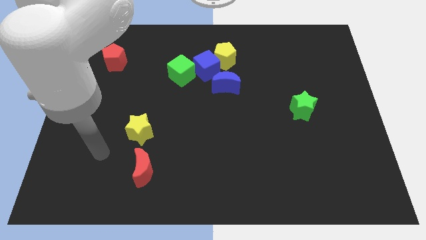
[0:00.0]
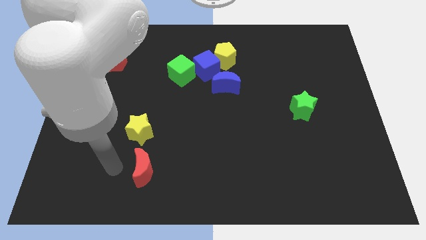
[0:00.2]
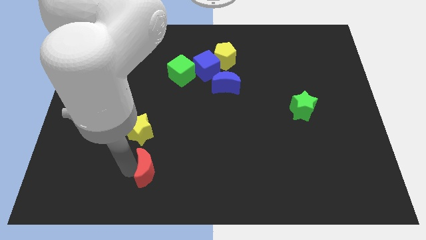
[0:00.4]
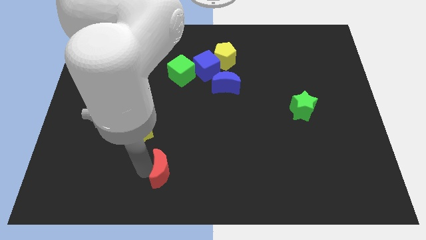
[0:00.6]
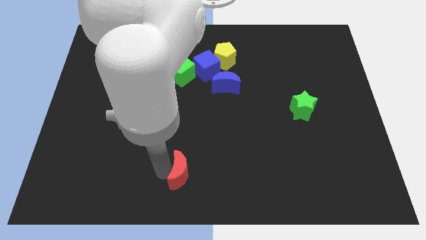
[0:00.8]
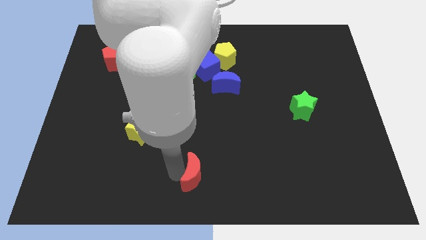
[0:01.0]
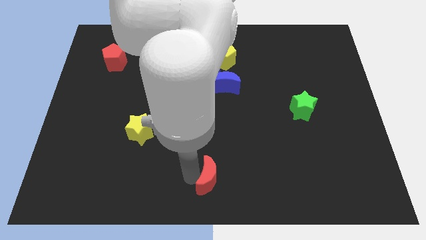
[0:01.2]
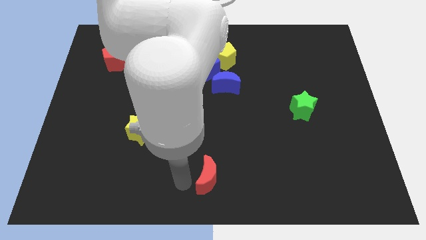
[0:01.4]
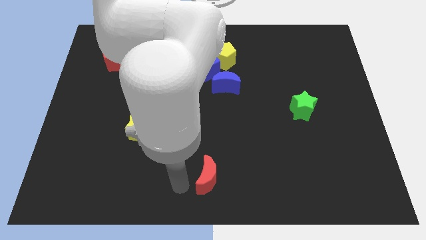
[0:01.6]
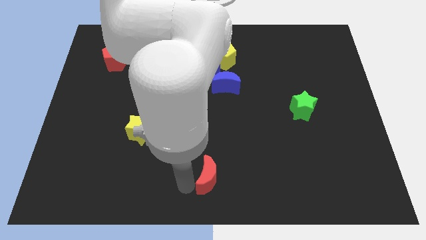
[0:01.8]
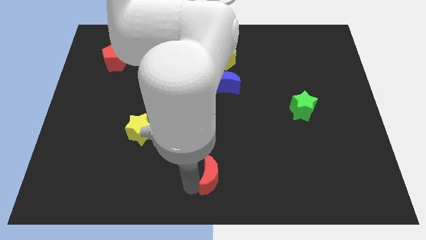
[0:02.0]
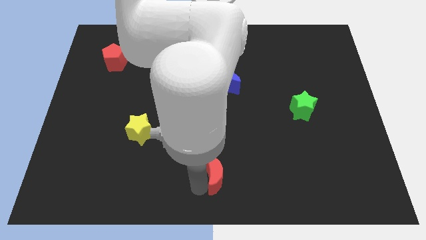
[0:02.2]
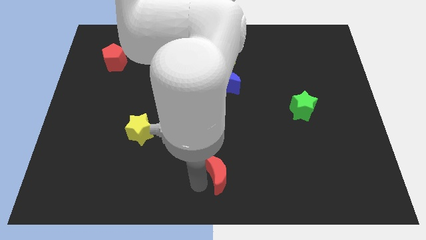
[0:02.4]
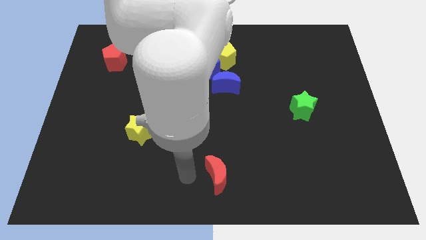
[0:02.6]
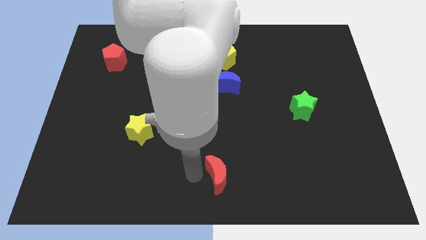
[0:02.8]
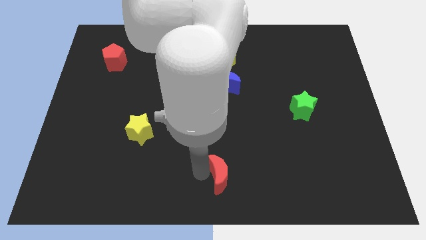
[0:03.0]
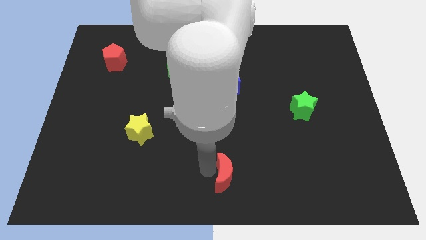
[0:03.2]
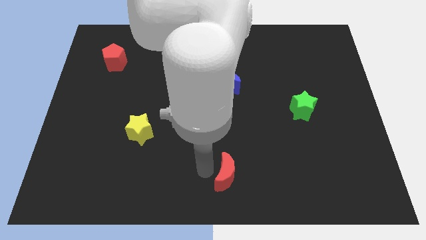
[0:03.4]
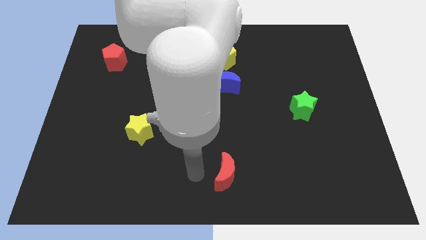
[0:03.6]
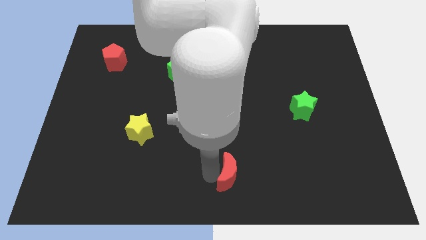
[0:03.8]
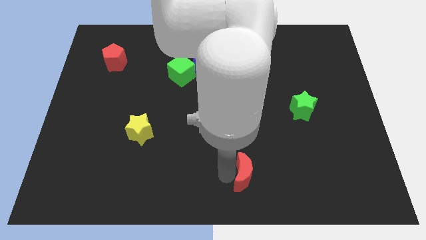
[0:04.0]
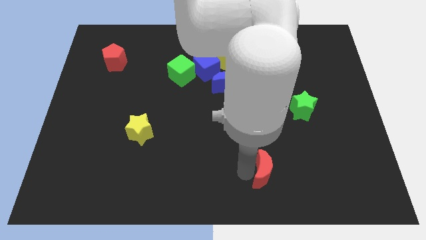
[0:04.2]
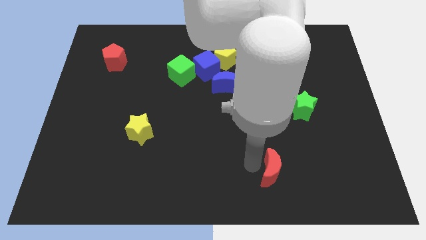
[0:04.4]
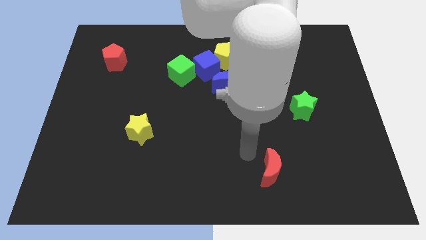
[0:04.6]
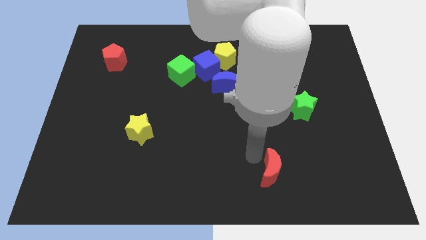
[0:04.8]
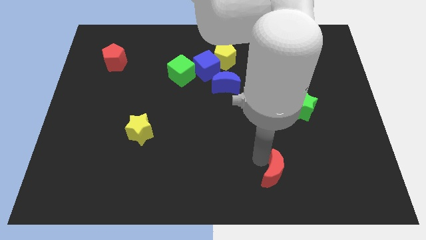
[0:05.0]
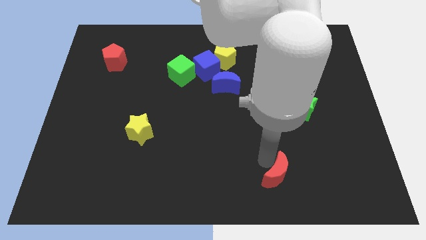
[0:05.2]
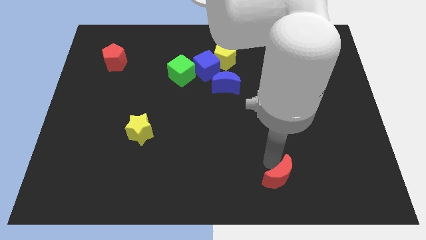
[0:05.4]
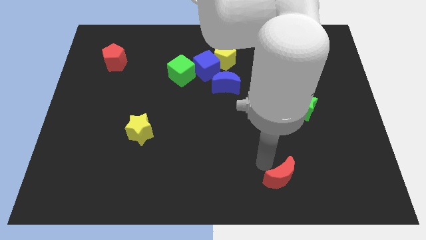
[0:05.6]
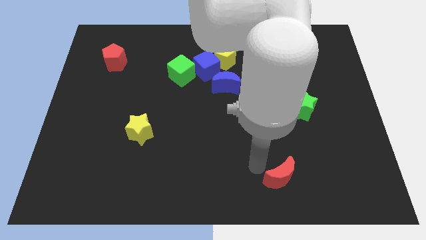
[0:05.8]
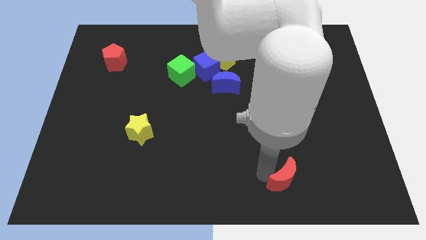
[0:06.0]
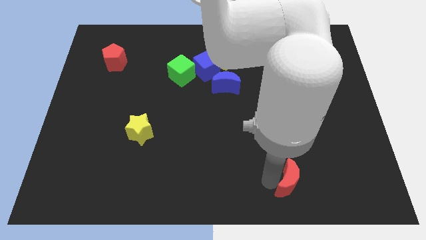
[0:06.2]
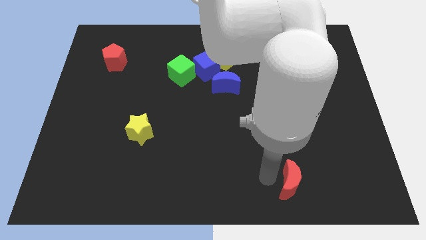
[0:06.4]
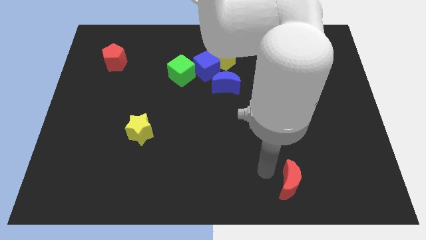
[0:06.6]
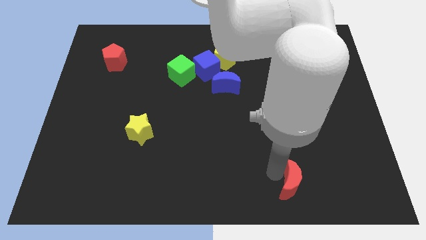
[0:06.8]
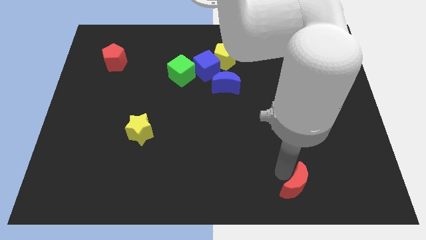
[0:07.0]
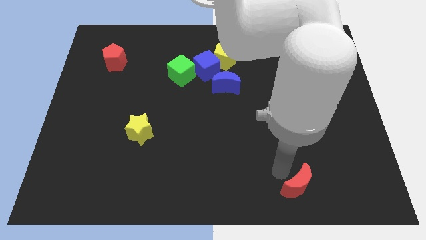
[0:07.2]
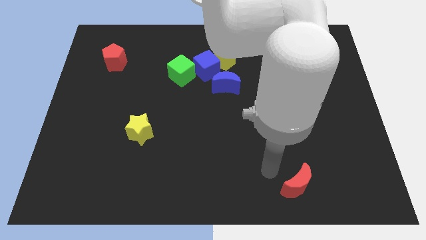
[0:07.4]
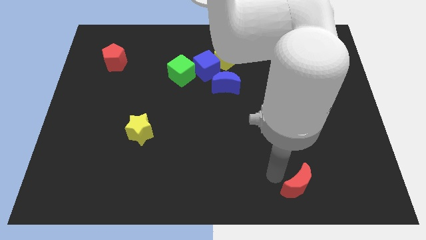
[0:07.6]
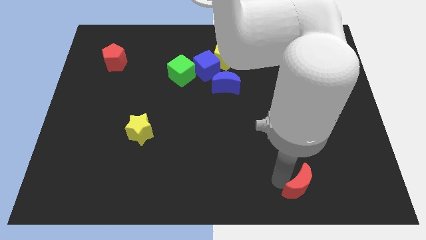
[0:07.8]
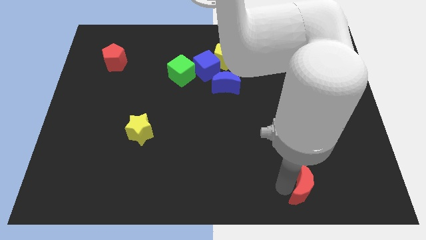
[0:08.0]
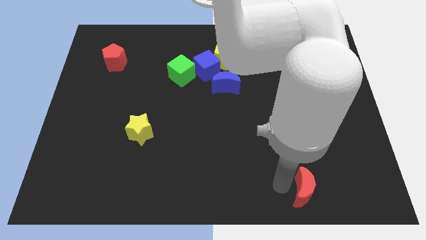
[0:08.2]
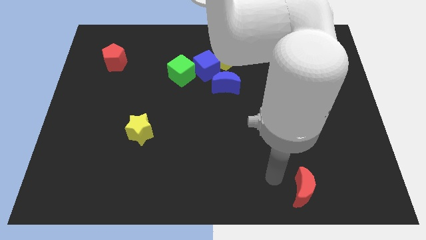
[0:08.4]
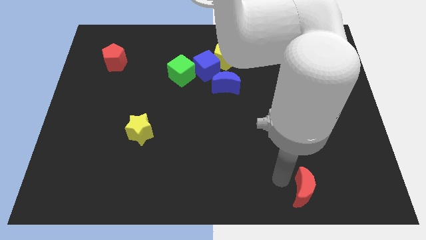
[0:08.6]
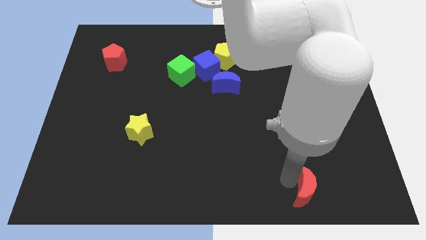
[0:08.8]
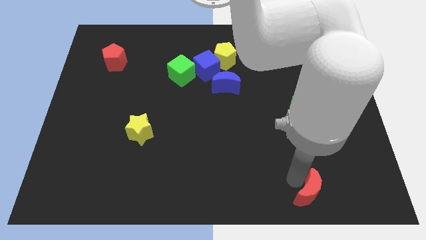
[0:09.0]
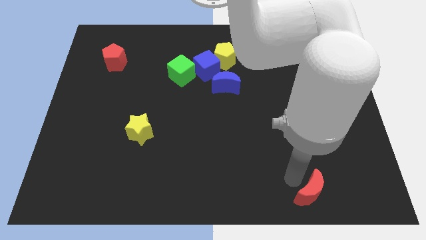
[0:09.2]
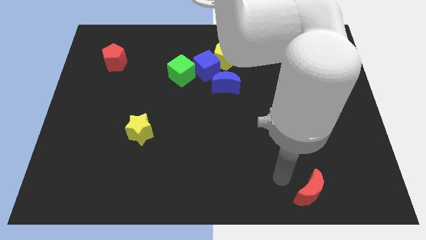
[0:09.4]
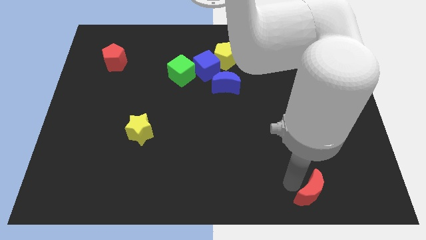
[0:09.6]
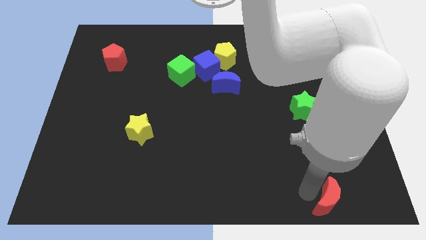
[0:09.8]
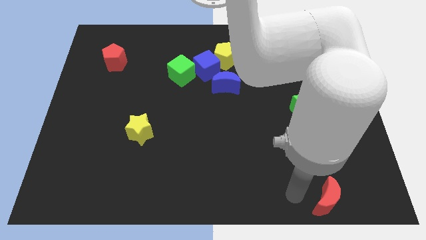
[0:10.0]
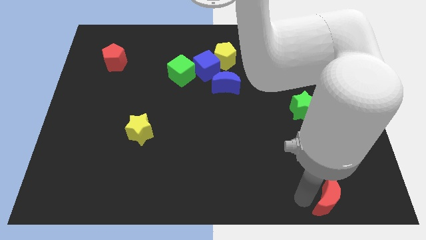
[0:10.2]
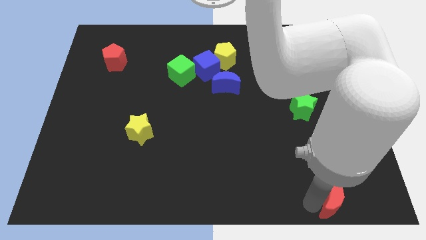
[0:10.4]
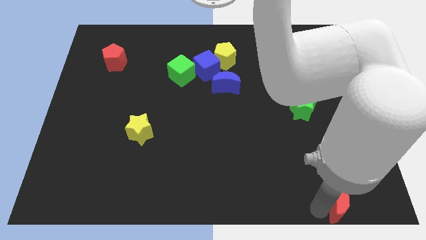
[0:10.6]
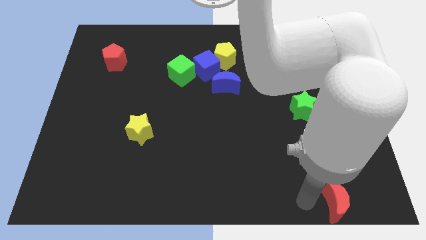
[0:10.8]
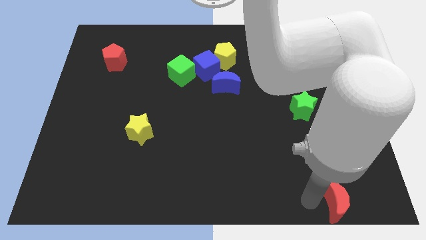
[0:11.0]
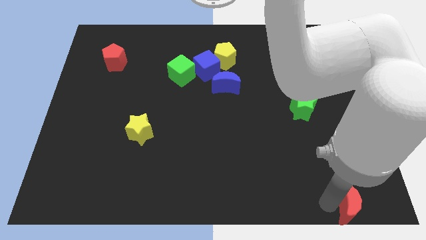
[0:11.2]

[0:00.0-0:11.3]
slide the red moon to the bottom right

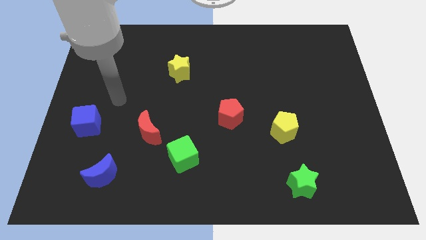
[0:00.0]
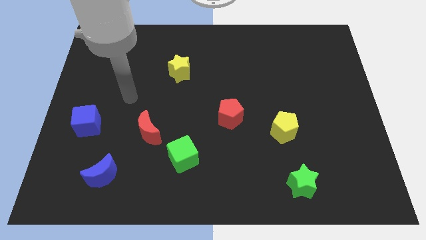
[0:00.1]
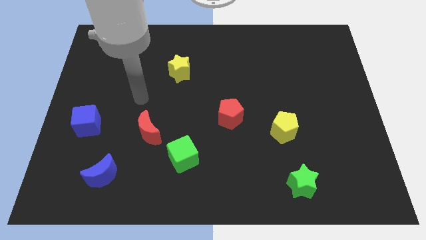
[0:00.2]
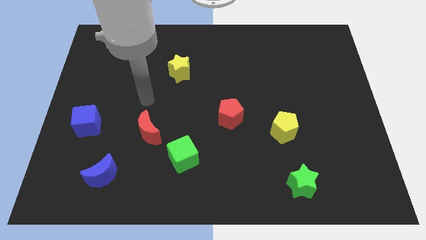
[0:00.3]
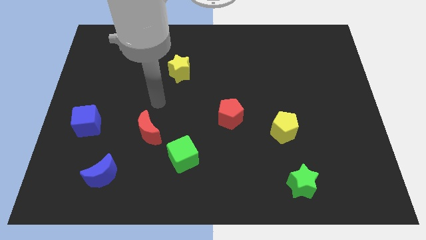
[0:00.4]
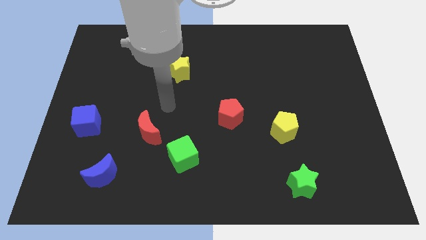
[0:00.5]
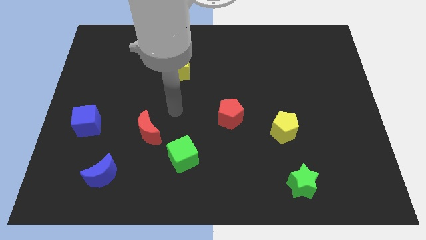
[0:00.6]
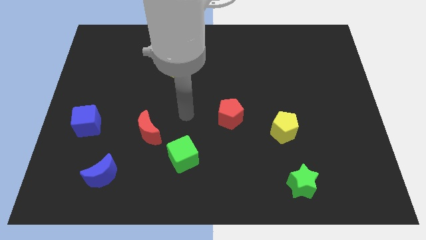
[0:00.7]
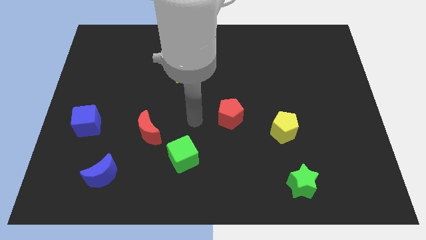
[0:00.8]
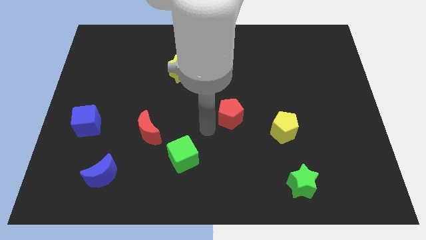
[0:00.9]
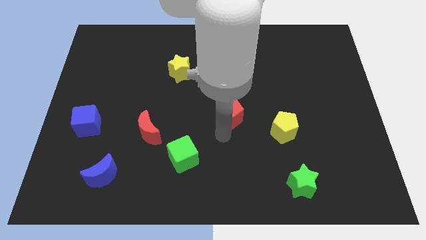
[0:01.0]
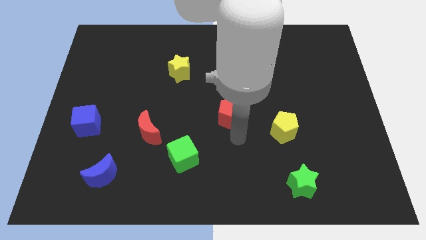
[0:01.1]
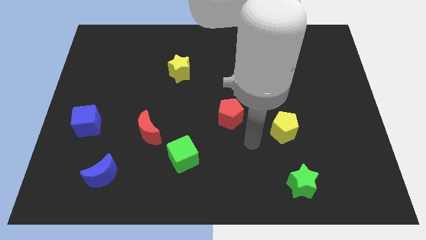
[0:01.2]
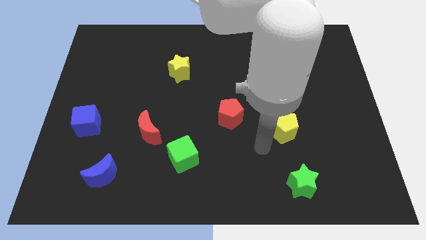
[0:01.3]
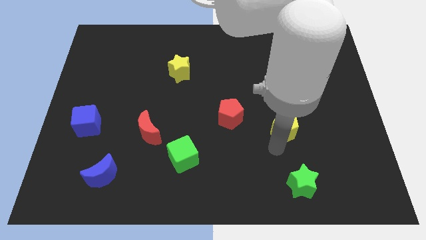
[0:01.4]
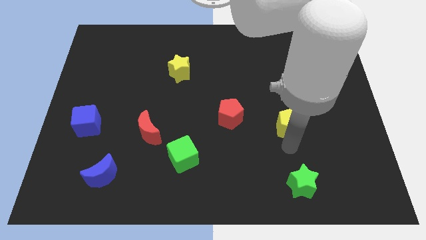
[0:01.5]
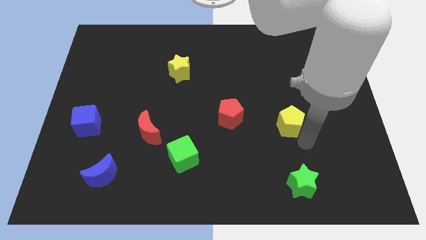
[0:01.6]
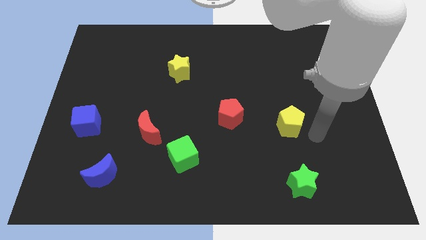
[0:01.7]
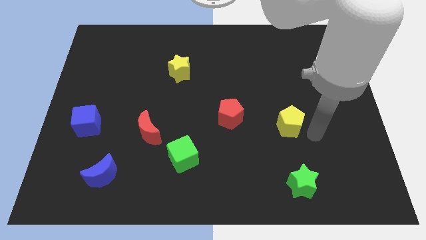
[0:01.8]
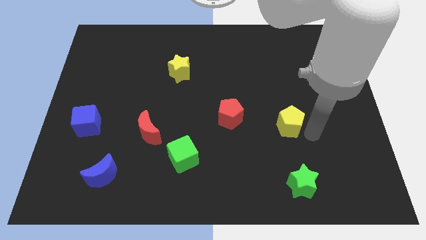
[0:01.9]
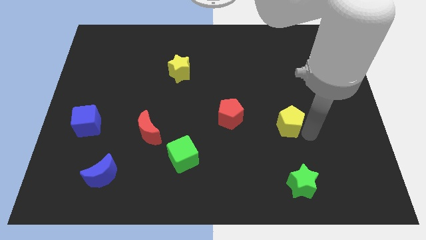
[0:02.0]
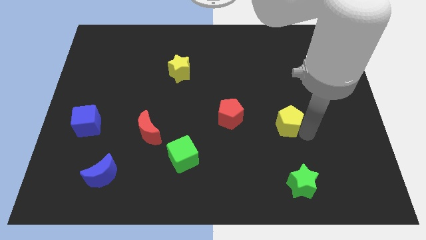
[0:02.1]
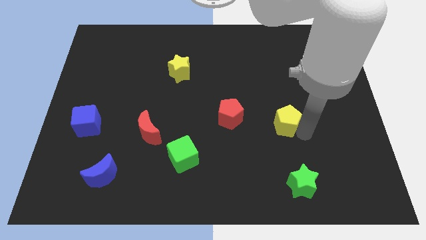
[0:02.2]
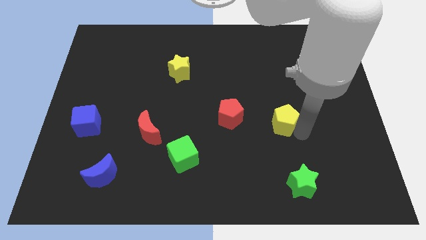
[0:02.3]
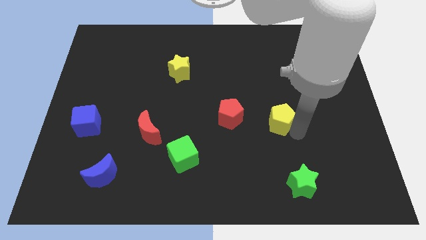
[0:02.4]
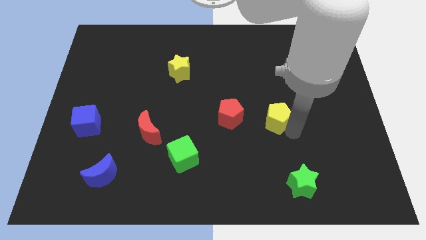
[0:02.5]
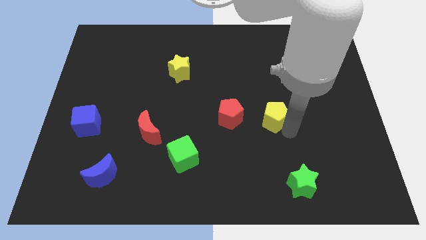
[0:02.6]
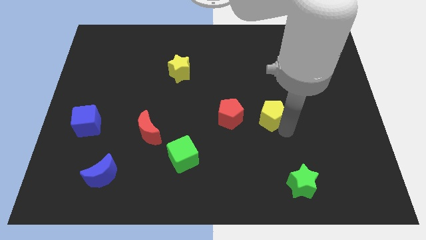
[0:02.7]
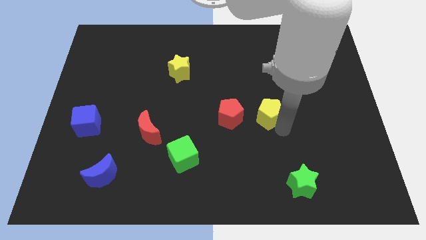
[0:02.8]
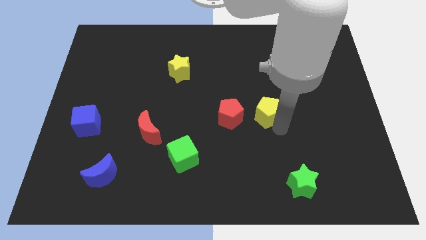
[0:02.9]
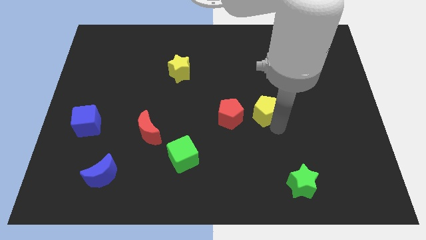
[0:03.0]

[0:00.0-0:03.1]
move the yellow pentagon to the middle
